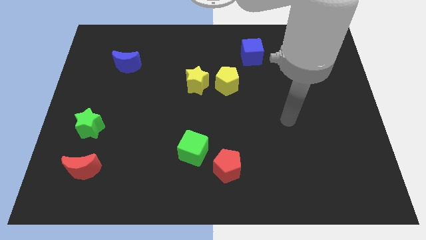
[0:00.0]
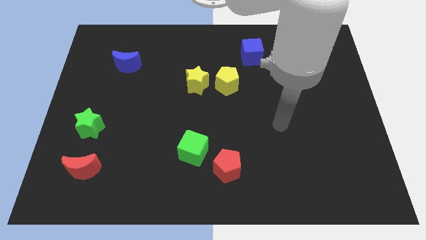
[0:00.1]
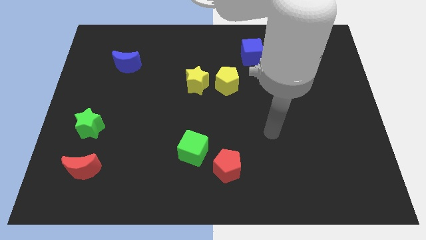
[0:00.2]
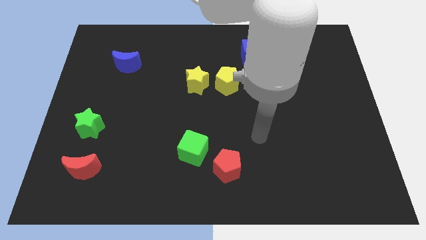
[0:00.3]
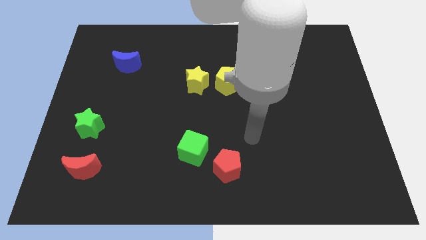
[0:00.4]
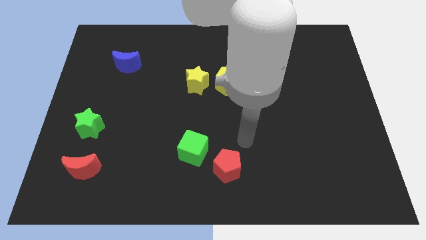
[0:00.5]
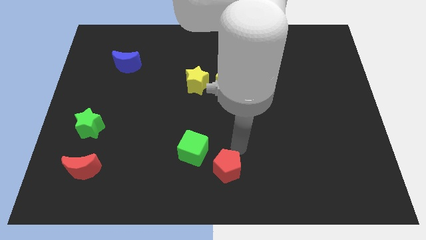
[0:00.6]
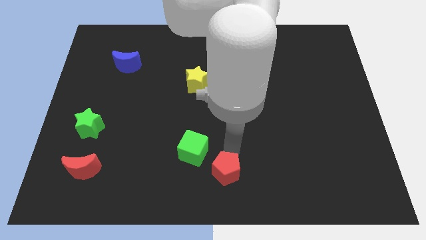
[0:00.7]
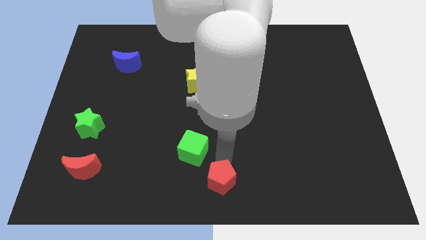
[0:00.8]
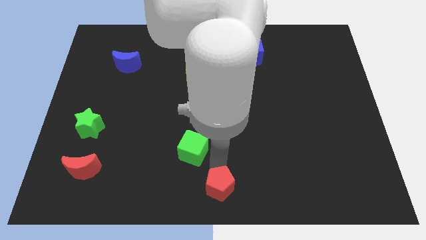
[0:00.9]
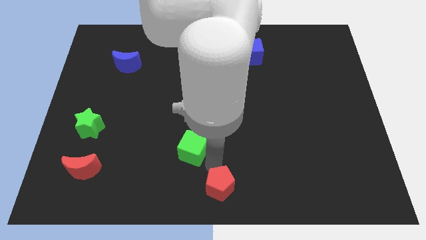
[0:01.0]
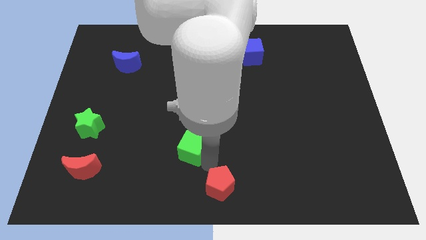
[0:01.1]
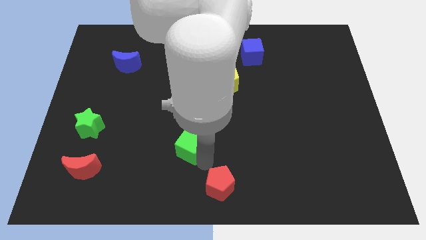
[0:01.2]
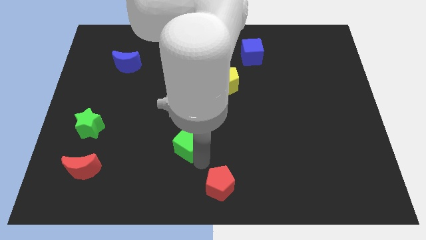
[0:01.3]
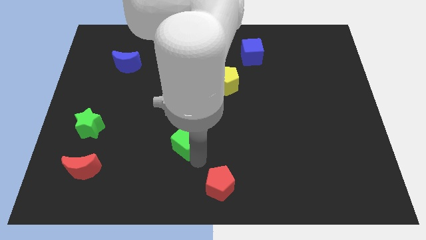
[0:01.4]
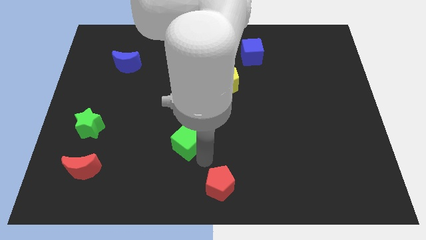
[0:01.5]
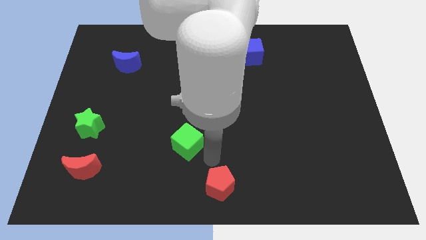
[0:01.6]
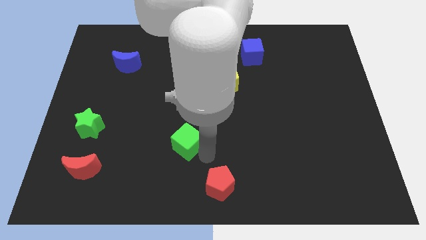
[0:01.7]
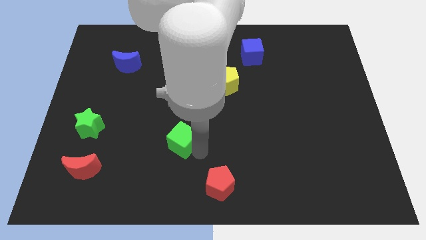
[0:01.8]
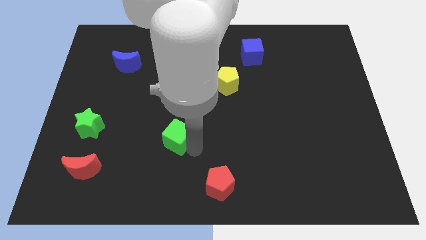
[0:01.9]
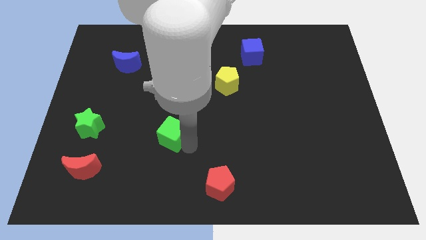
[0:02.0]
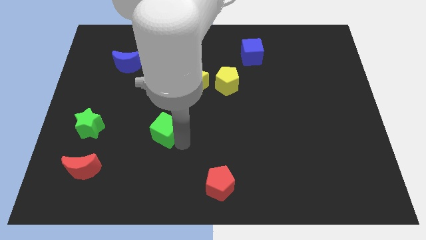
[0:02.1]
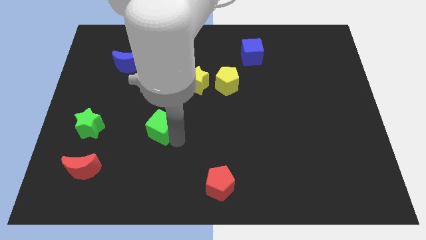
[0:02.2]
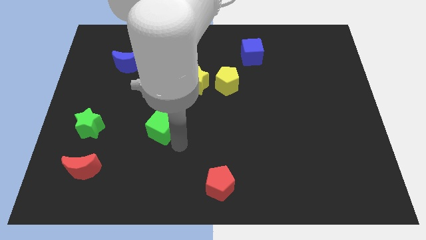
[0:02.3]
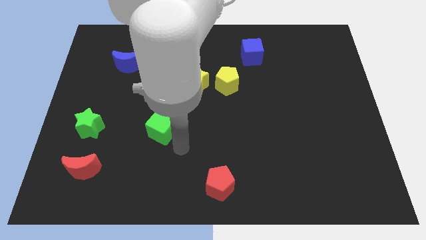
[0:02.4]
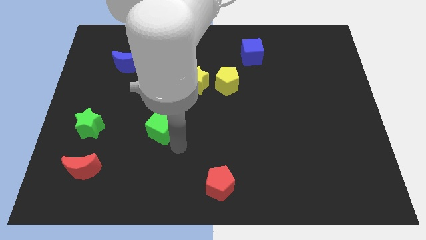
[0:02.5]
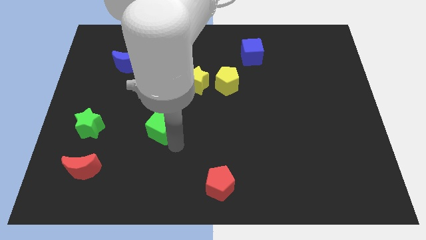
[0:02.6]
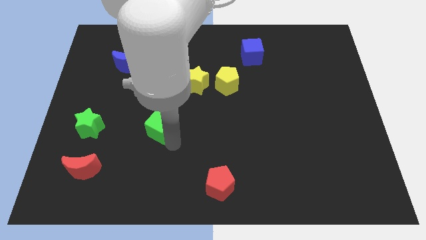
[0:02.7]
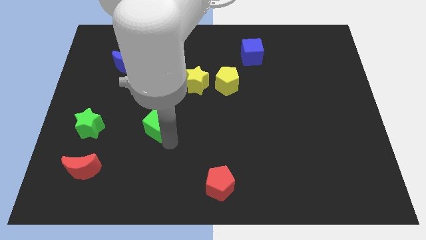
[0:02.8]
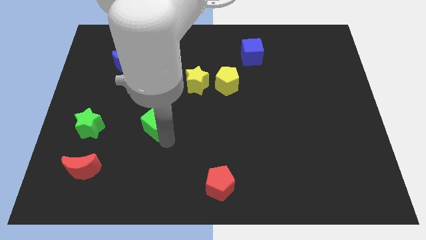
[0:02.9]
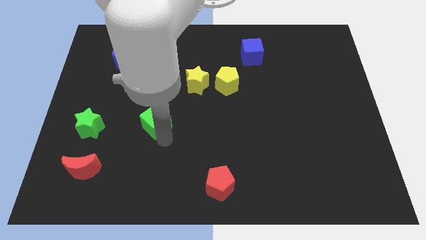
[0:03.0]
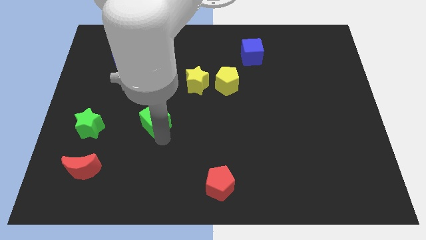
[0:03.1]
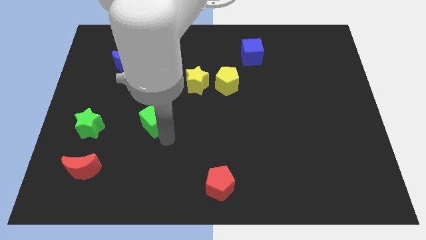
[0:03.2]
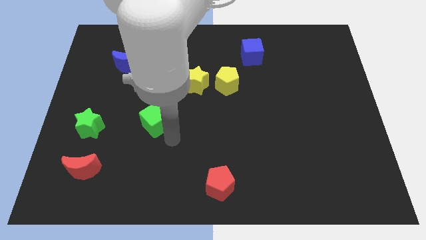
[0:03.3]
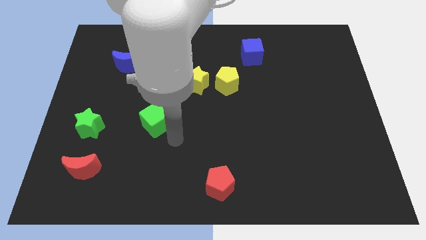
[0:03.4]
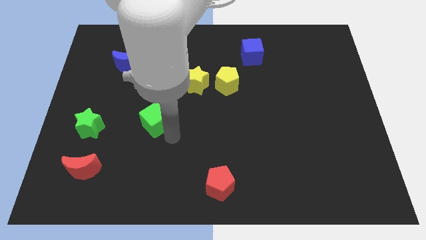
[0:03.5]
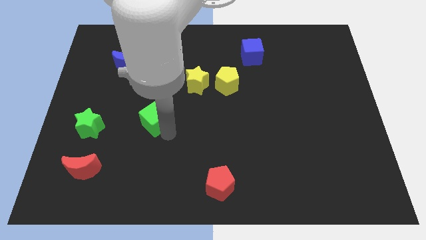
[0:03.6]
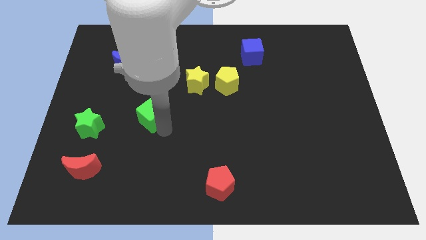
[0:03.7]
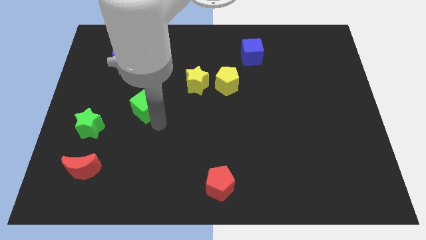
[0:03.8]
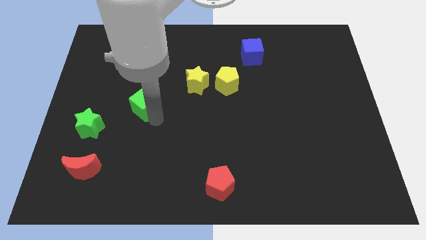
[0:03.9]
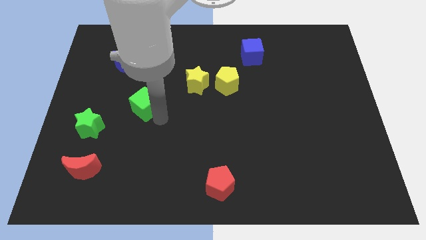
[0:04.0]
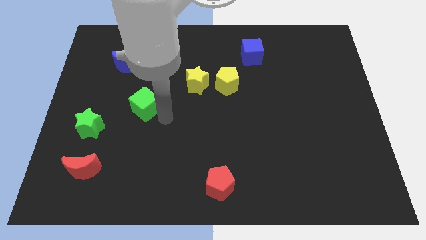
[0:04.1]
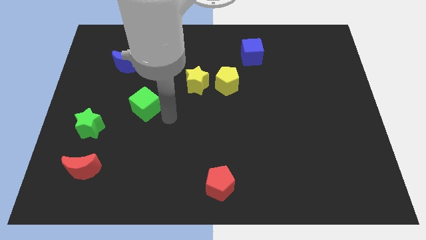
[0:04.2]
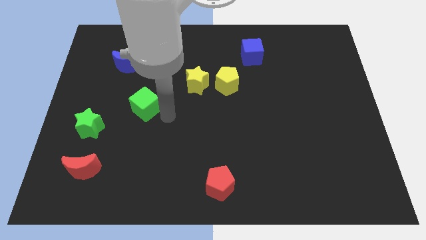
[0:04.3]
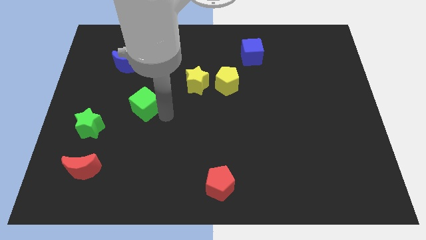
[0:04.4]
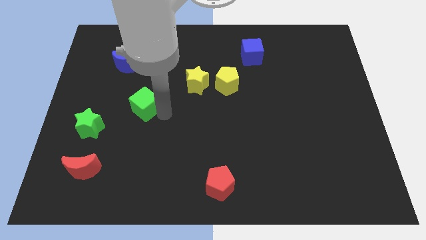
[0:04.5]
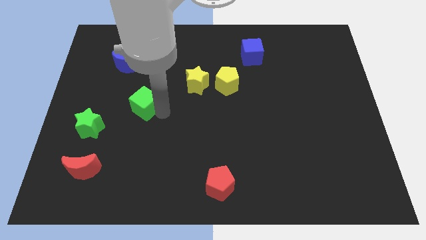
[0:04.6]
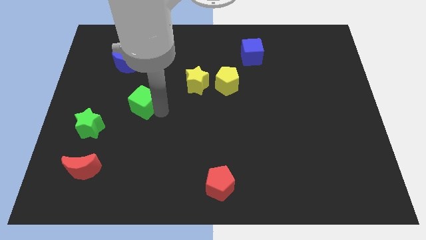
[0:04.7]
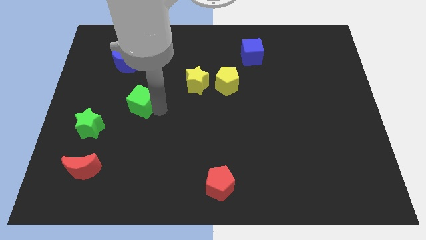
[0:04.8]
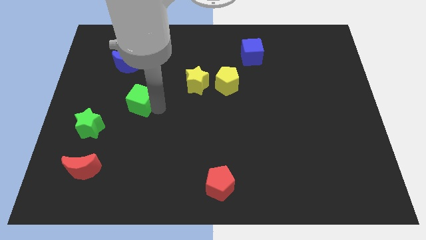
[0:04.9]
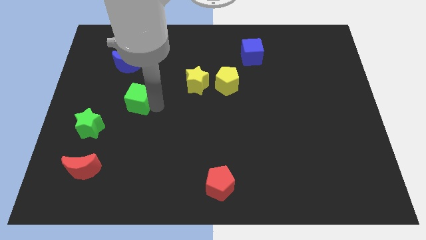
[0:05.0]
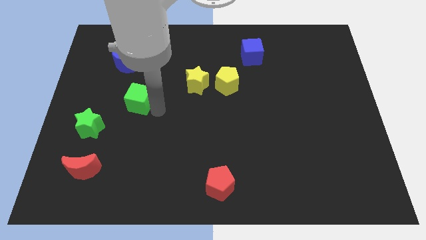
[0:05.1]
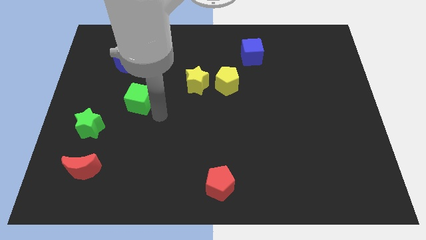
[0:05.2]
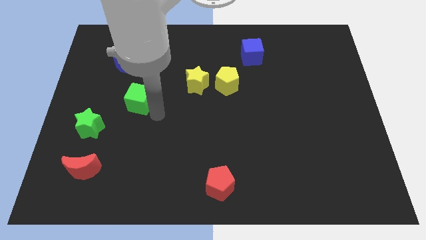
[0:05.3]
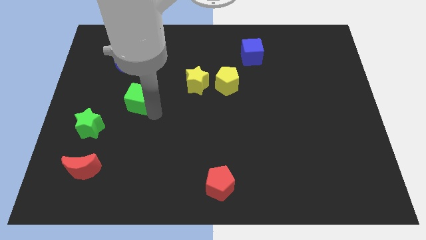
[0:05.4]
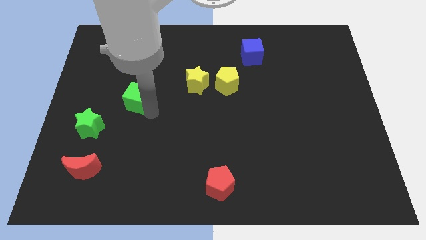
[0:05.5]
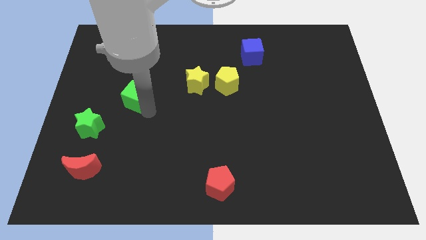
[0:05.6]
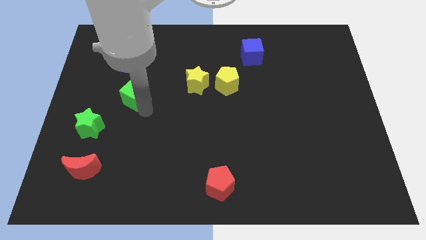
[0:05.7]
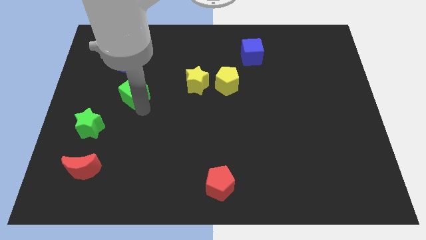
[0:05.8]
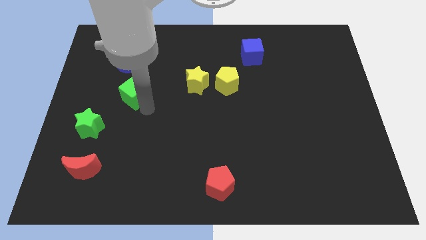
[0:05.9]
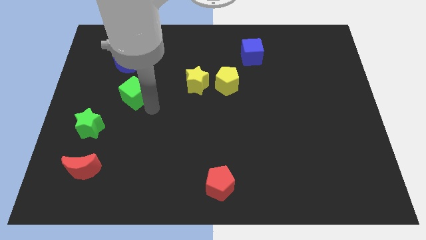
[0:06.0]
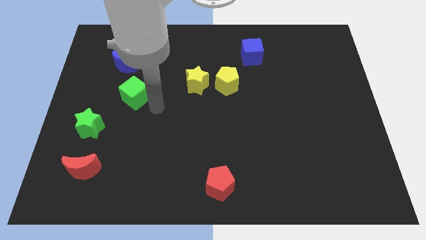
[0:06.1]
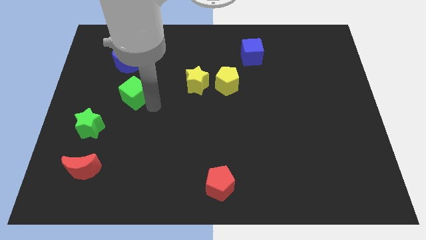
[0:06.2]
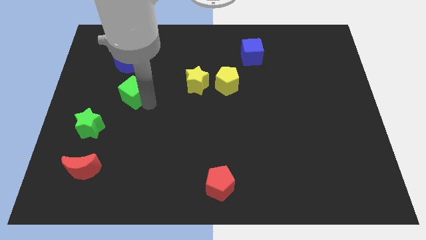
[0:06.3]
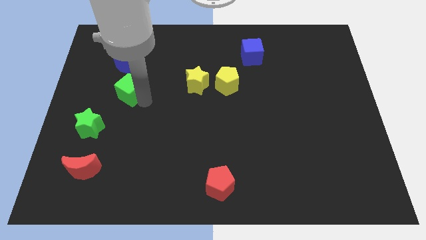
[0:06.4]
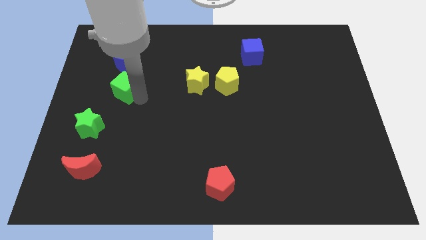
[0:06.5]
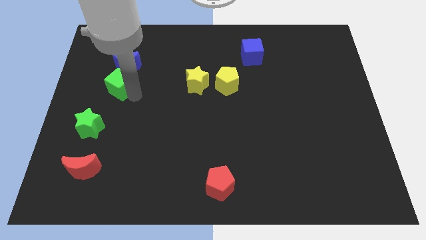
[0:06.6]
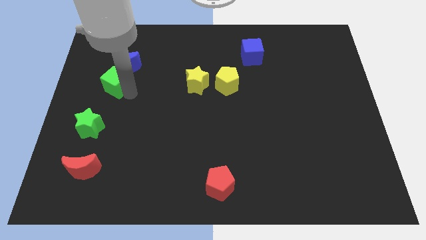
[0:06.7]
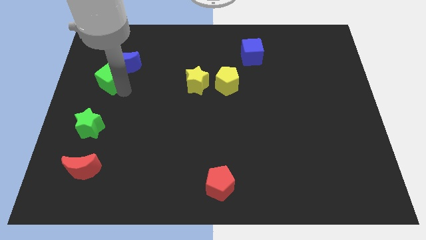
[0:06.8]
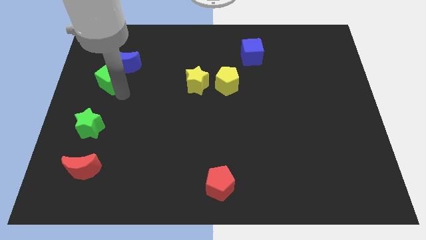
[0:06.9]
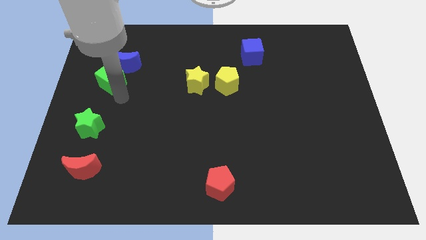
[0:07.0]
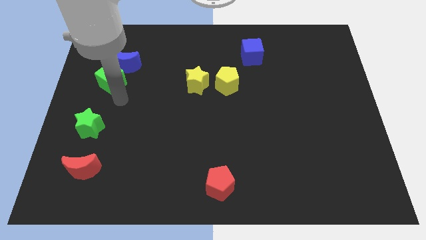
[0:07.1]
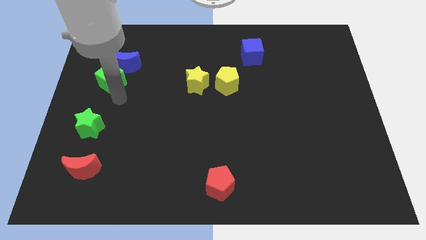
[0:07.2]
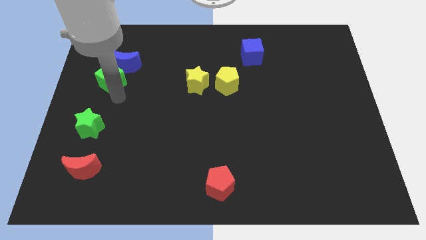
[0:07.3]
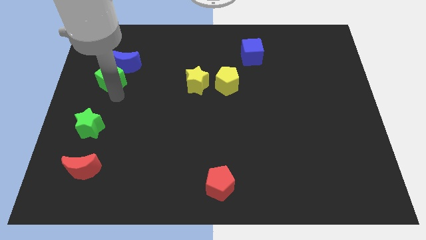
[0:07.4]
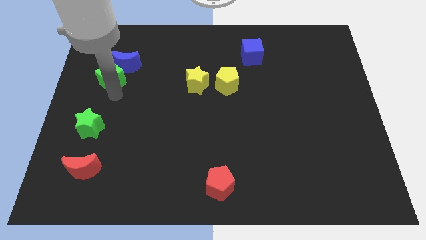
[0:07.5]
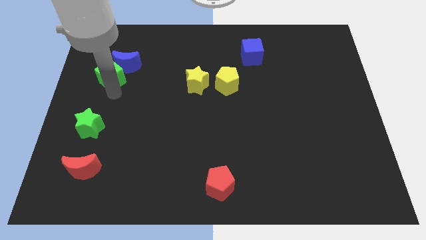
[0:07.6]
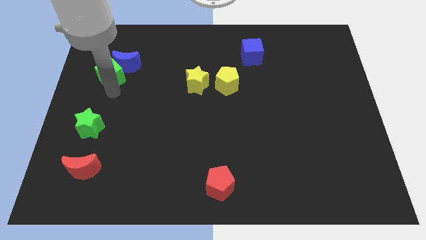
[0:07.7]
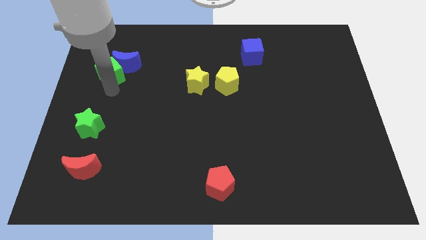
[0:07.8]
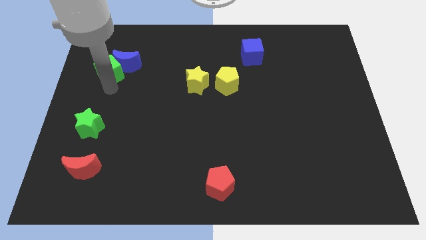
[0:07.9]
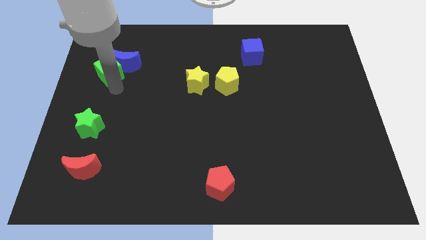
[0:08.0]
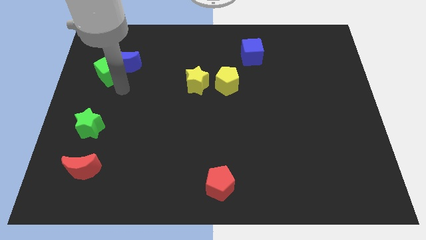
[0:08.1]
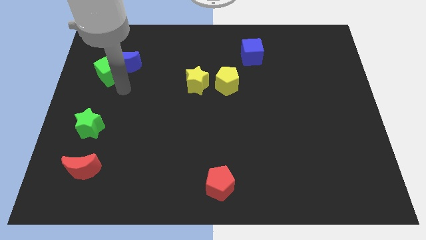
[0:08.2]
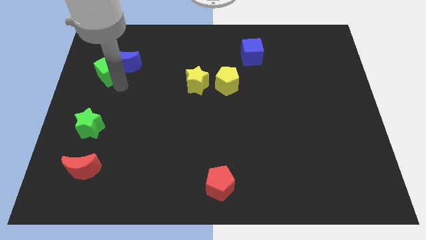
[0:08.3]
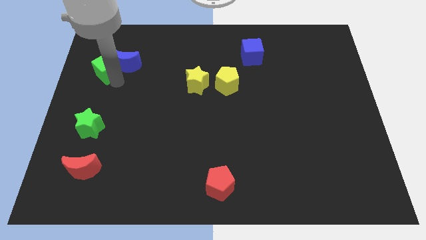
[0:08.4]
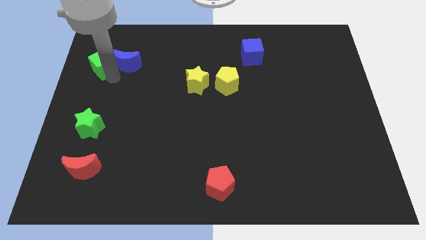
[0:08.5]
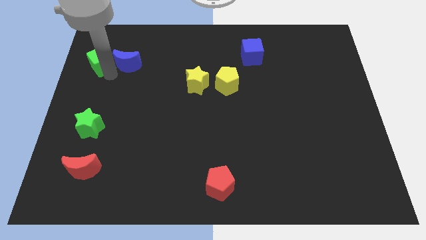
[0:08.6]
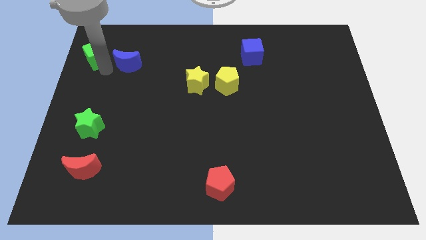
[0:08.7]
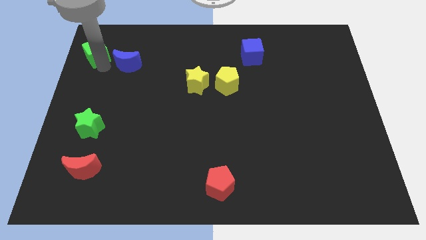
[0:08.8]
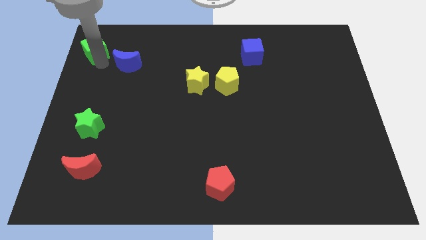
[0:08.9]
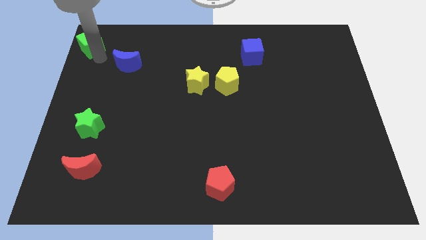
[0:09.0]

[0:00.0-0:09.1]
push the green cube to the top left of the board
